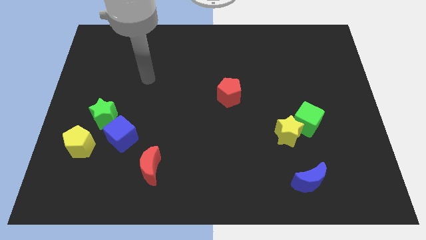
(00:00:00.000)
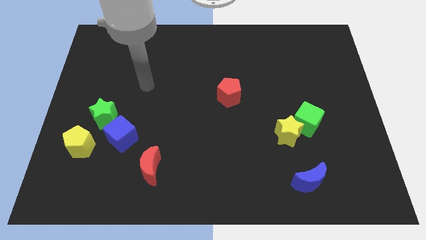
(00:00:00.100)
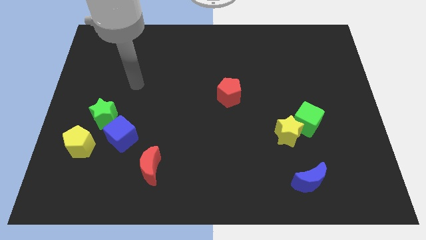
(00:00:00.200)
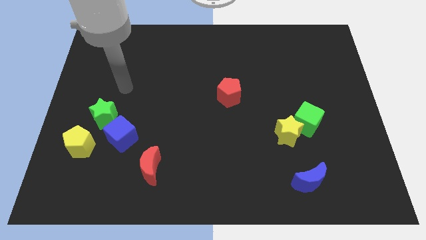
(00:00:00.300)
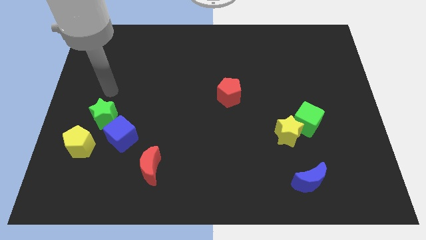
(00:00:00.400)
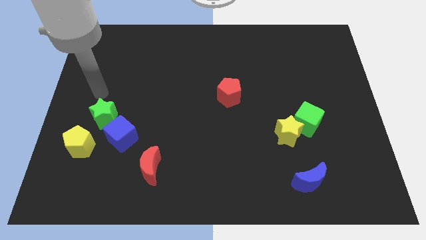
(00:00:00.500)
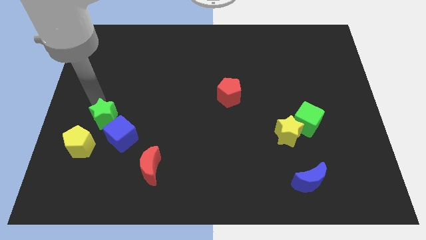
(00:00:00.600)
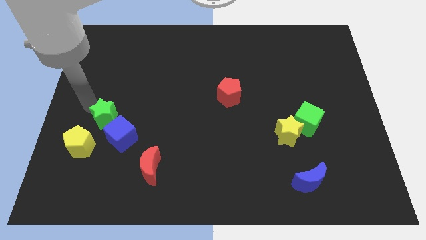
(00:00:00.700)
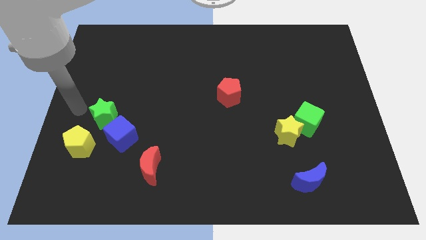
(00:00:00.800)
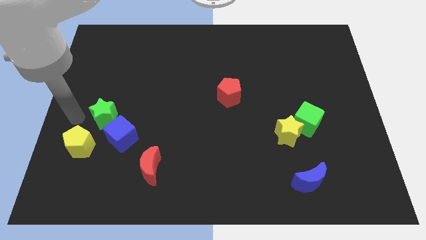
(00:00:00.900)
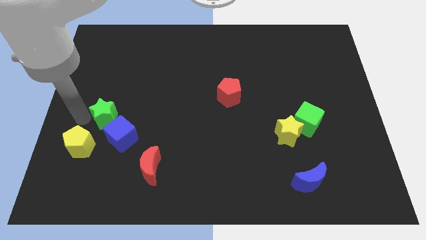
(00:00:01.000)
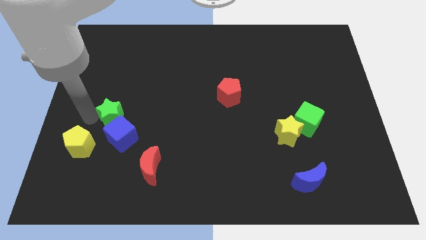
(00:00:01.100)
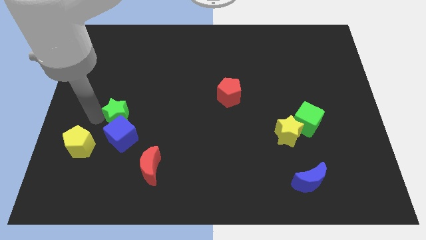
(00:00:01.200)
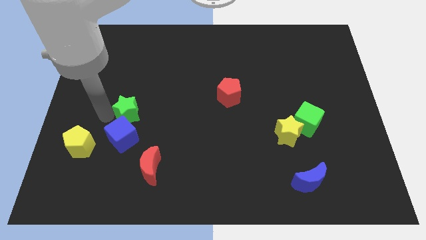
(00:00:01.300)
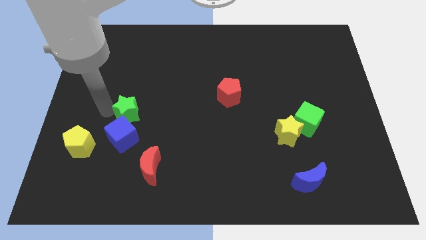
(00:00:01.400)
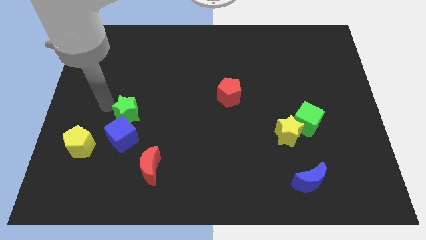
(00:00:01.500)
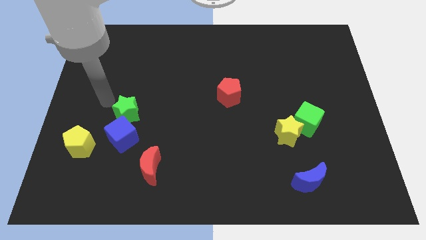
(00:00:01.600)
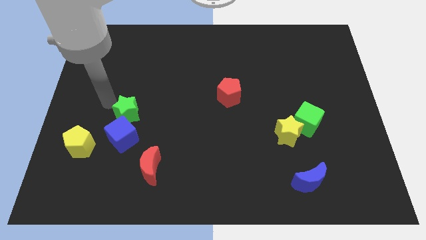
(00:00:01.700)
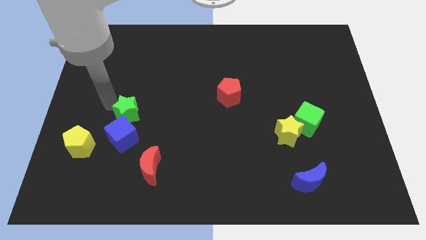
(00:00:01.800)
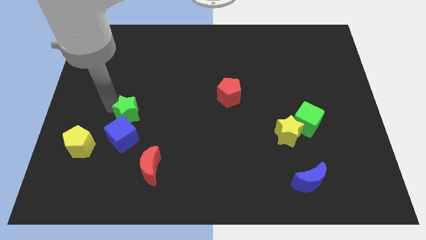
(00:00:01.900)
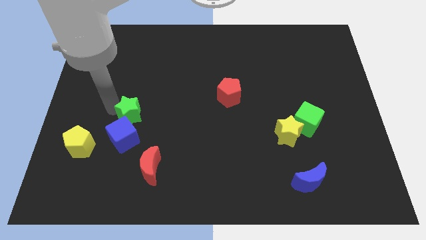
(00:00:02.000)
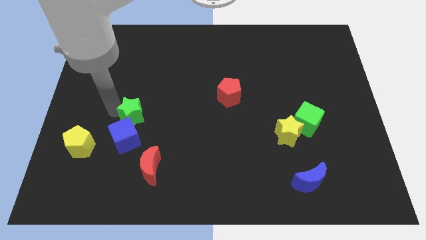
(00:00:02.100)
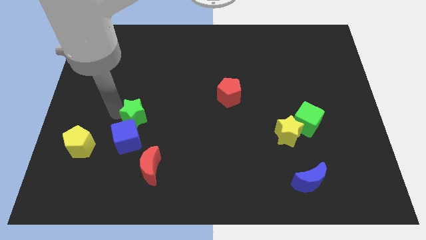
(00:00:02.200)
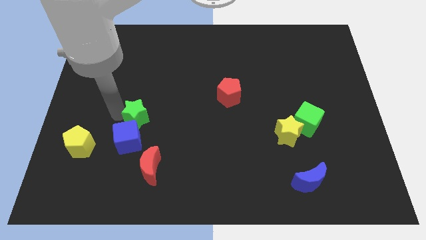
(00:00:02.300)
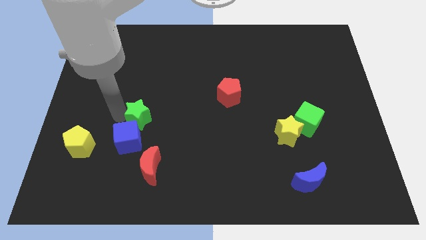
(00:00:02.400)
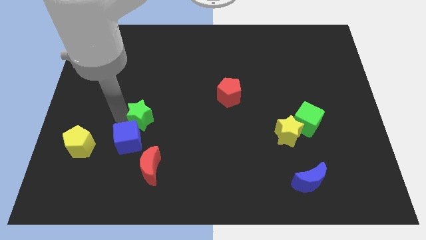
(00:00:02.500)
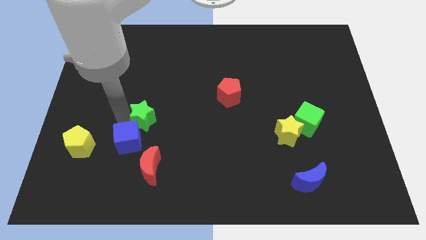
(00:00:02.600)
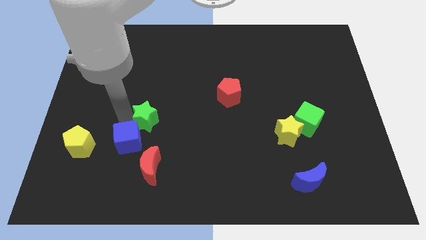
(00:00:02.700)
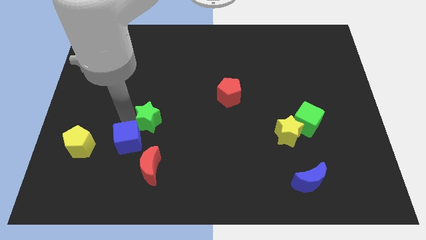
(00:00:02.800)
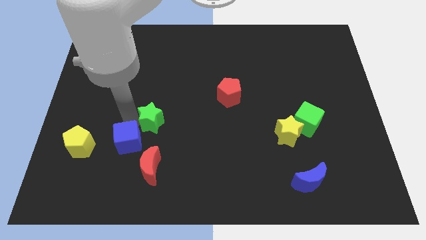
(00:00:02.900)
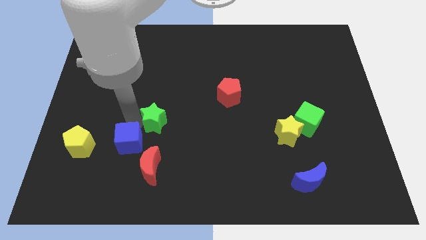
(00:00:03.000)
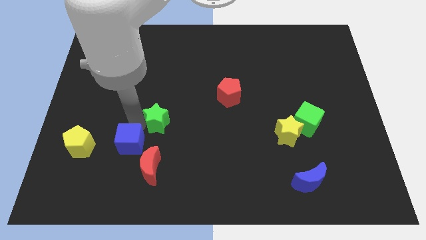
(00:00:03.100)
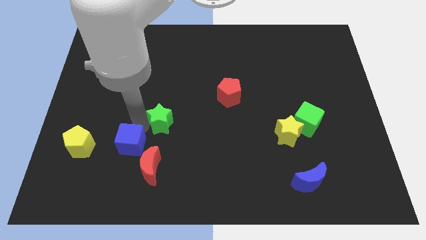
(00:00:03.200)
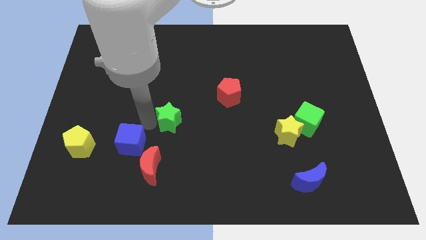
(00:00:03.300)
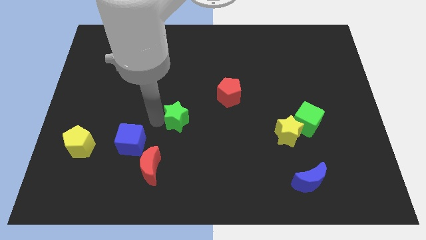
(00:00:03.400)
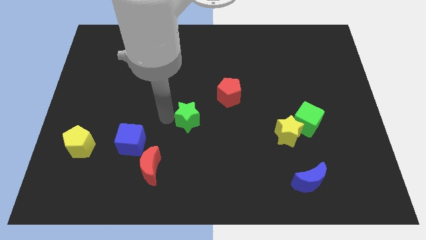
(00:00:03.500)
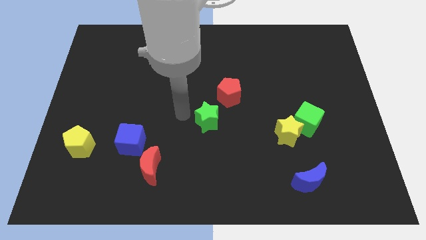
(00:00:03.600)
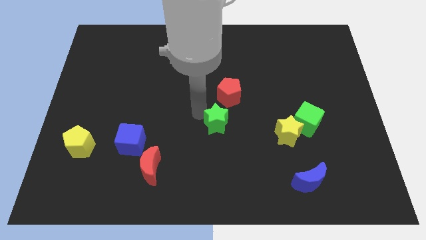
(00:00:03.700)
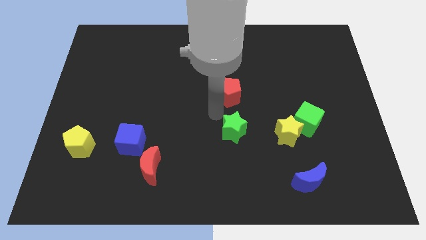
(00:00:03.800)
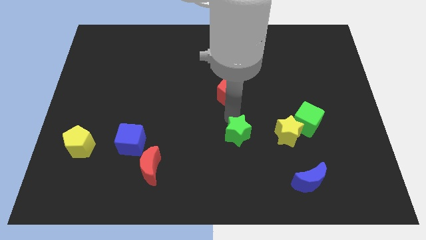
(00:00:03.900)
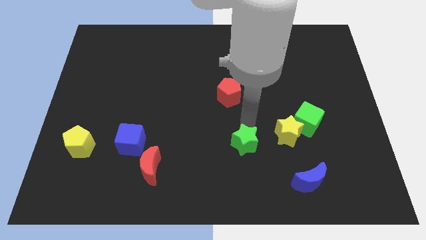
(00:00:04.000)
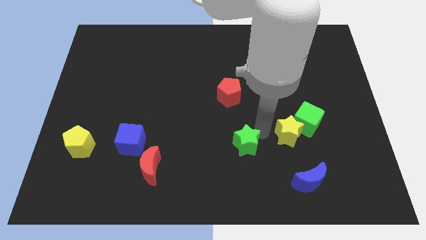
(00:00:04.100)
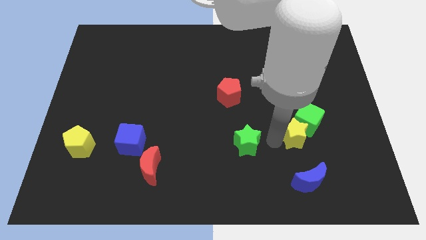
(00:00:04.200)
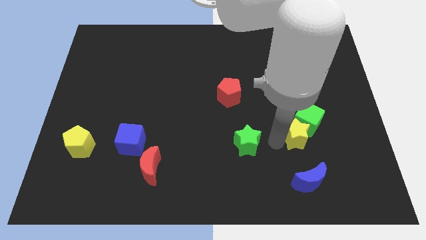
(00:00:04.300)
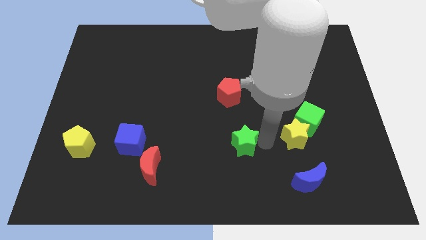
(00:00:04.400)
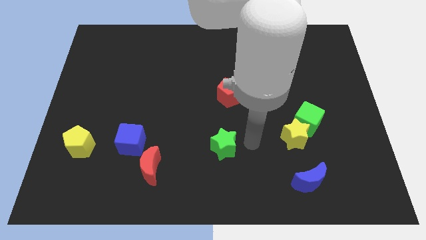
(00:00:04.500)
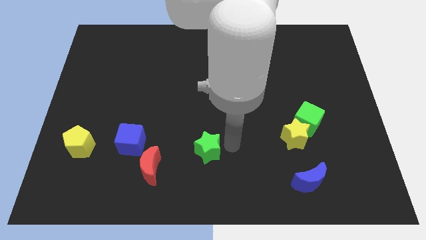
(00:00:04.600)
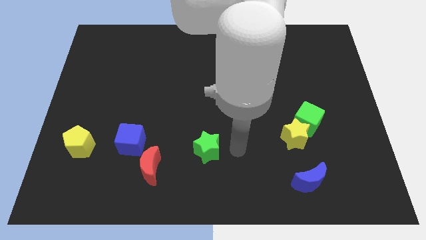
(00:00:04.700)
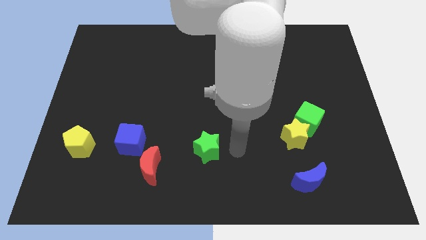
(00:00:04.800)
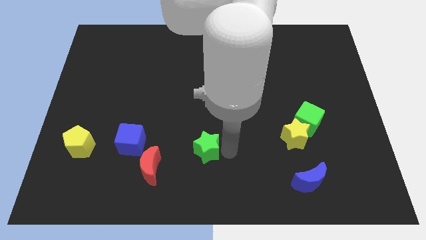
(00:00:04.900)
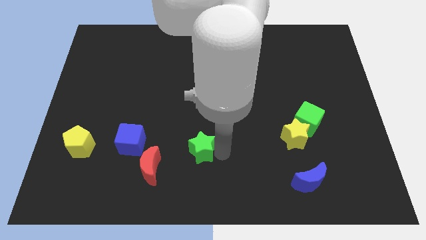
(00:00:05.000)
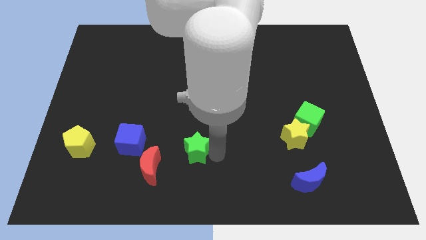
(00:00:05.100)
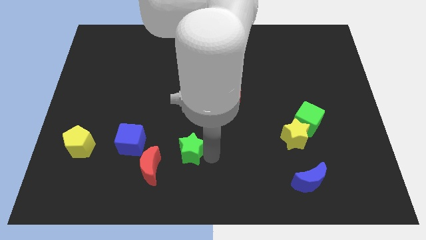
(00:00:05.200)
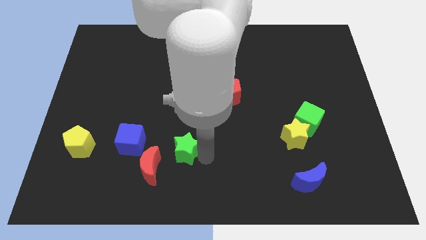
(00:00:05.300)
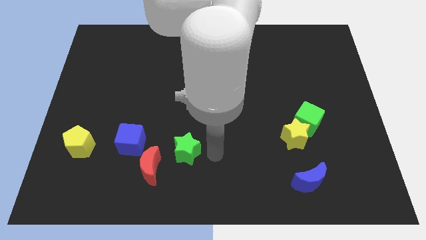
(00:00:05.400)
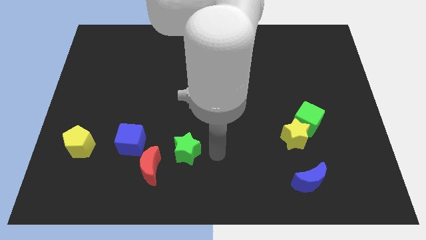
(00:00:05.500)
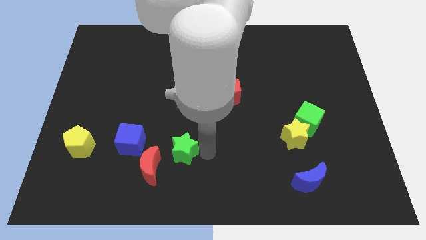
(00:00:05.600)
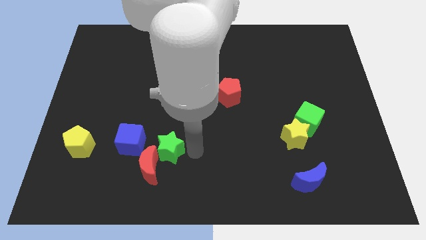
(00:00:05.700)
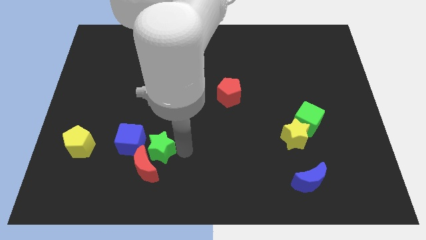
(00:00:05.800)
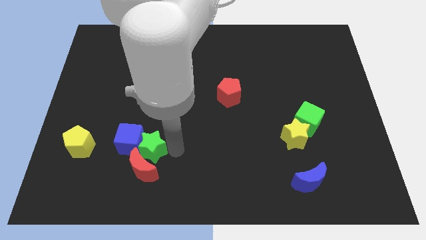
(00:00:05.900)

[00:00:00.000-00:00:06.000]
move the green star to the right side of the yellow pentagon

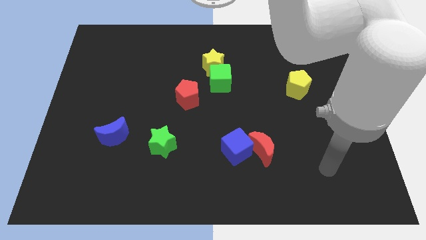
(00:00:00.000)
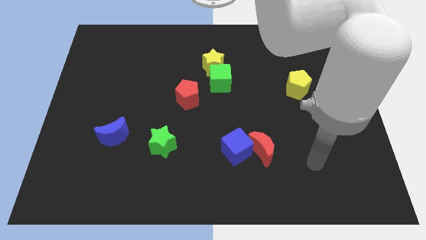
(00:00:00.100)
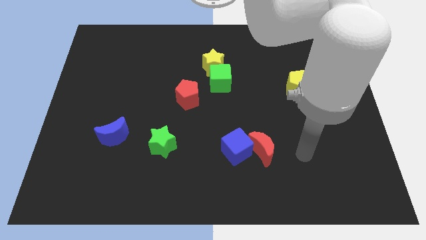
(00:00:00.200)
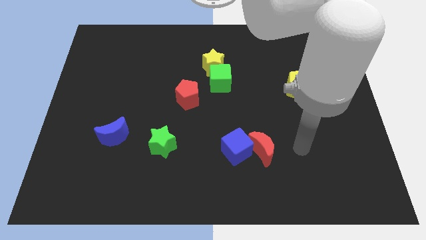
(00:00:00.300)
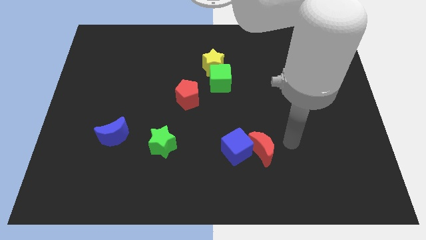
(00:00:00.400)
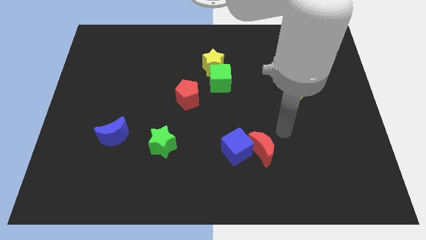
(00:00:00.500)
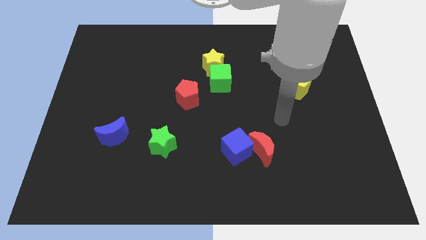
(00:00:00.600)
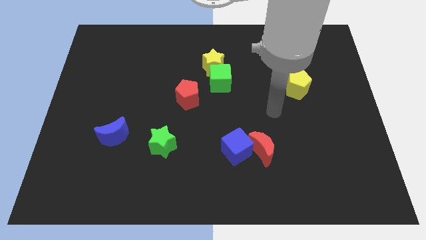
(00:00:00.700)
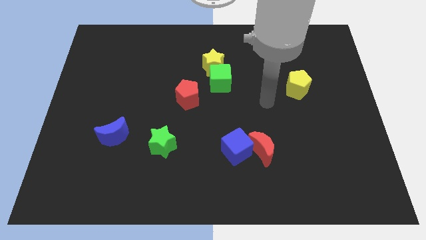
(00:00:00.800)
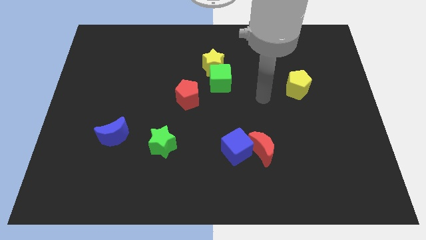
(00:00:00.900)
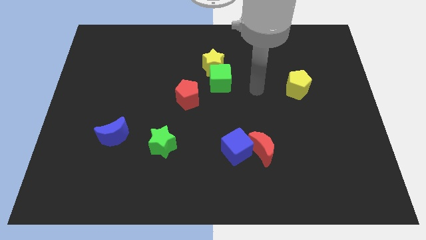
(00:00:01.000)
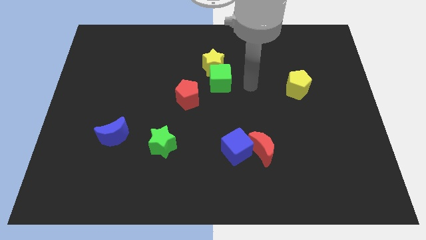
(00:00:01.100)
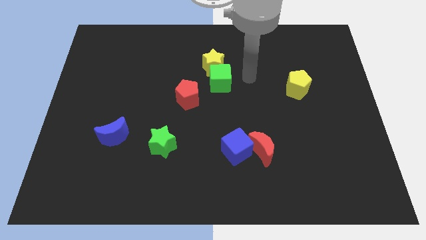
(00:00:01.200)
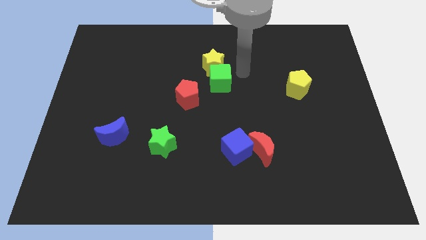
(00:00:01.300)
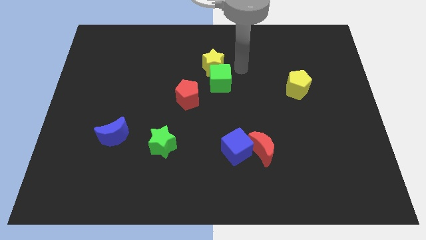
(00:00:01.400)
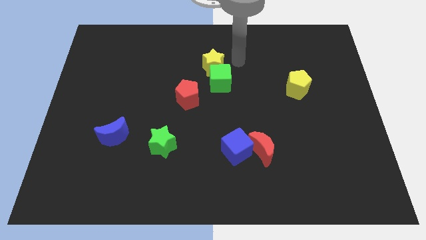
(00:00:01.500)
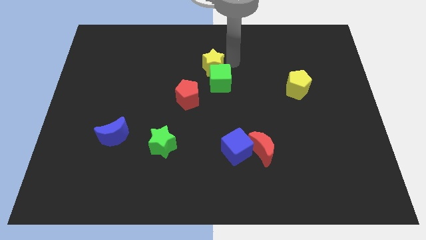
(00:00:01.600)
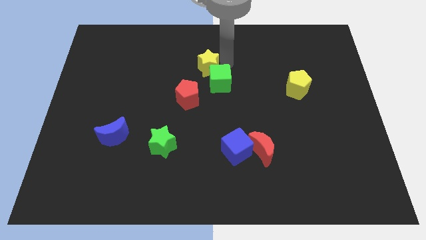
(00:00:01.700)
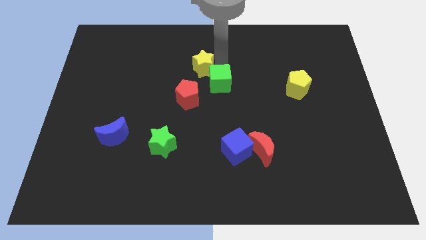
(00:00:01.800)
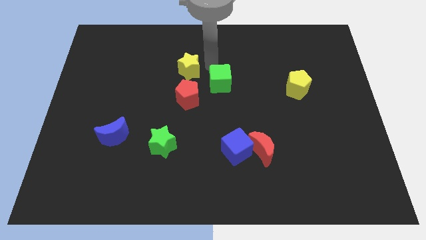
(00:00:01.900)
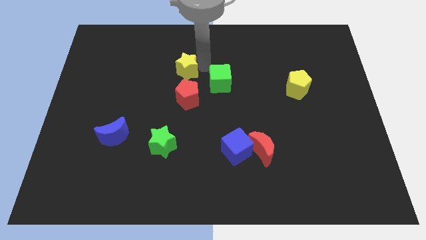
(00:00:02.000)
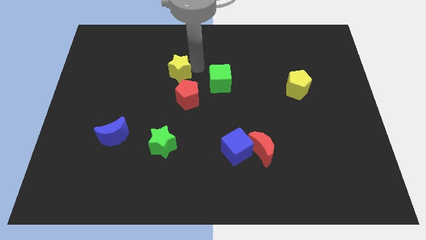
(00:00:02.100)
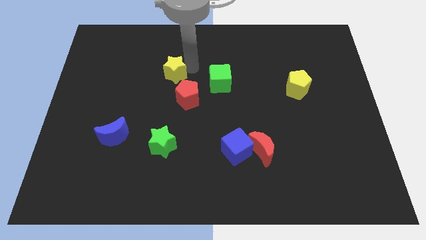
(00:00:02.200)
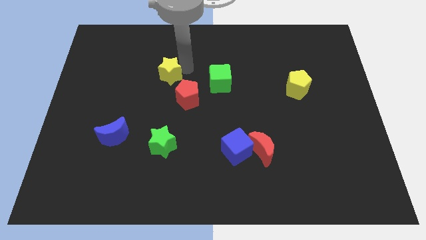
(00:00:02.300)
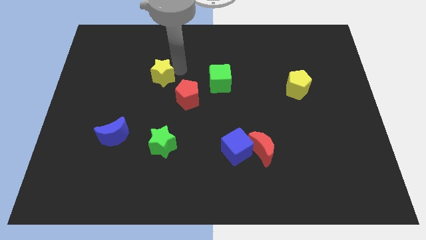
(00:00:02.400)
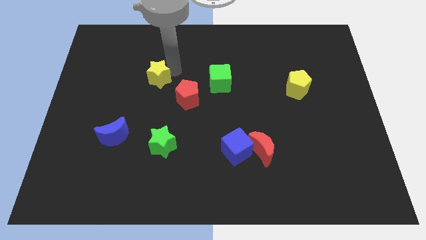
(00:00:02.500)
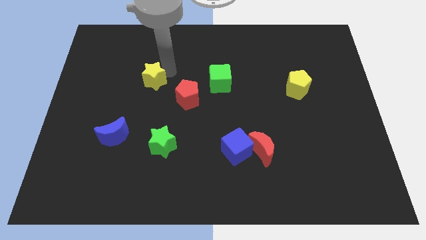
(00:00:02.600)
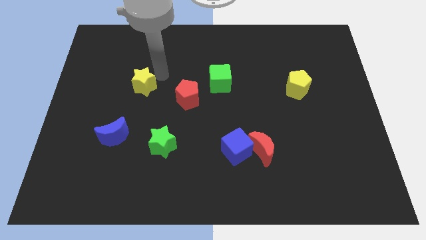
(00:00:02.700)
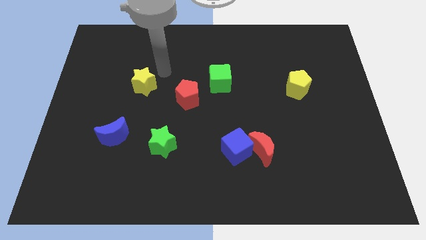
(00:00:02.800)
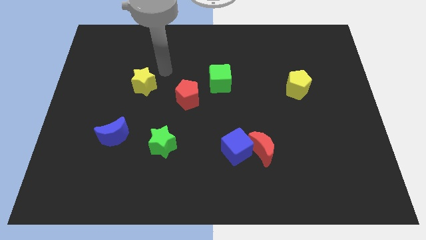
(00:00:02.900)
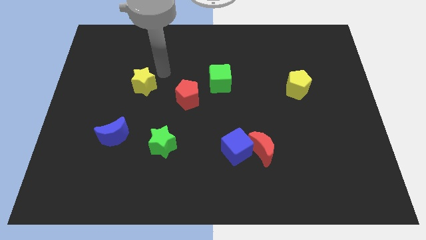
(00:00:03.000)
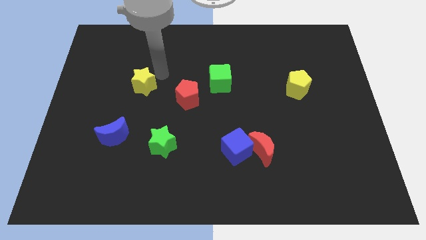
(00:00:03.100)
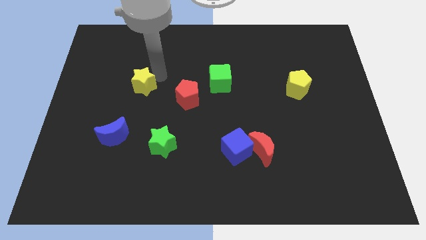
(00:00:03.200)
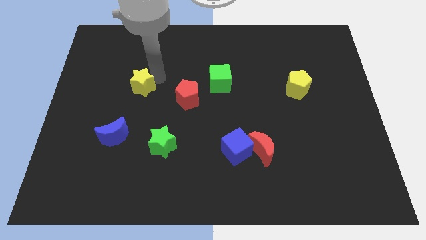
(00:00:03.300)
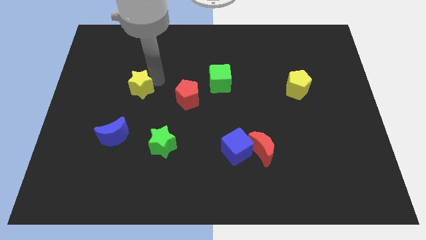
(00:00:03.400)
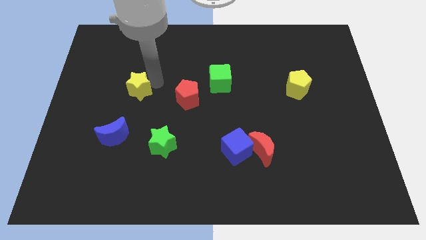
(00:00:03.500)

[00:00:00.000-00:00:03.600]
move the yellow star above the blue moon
